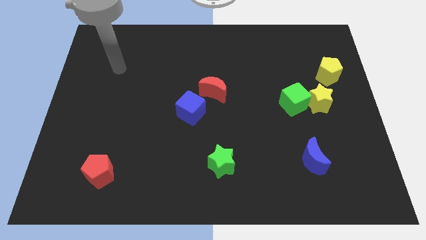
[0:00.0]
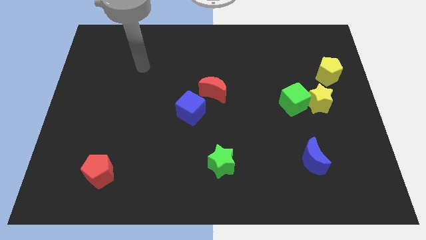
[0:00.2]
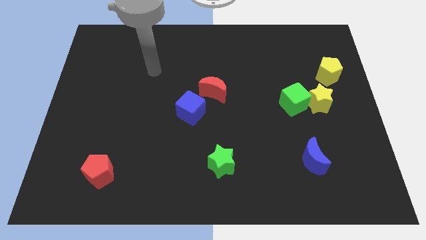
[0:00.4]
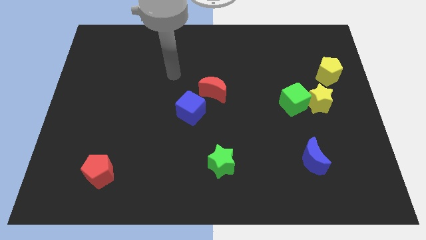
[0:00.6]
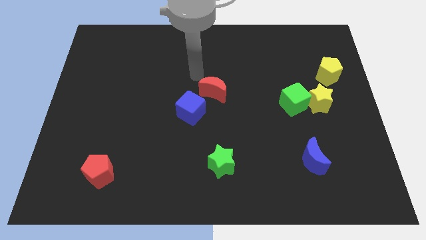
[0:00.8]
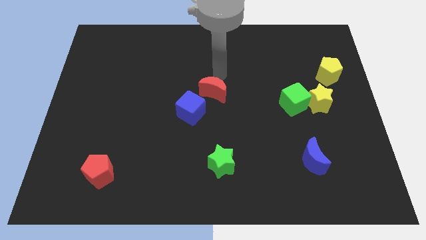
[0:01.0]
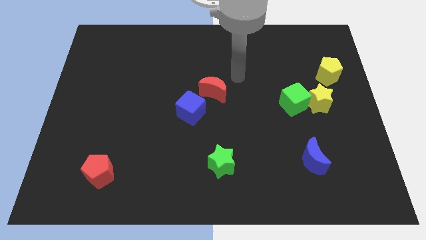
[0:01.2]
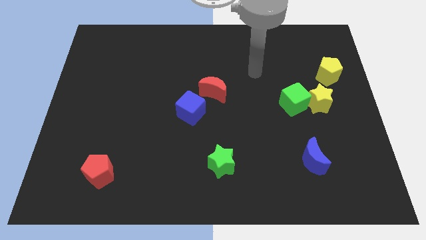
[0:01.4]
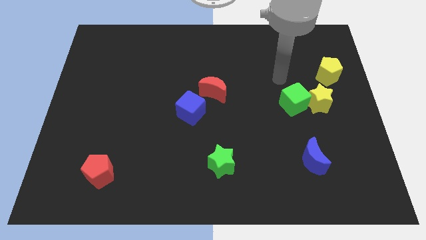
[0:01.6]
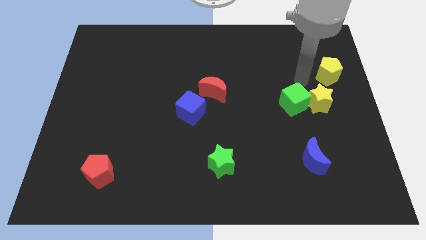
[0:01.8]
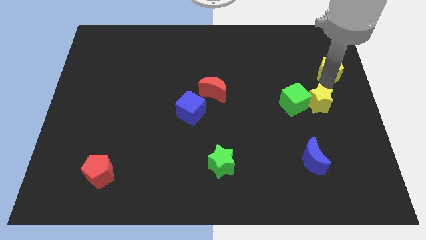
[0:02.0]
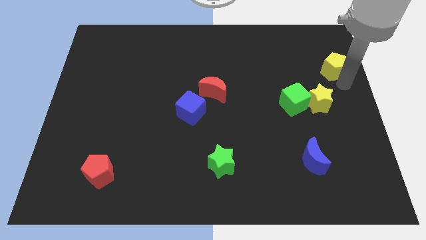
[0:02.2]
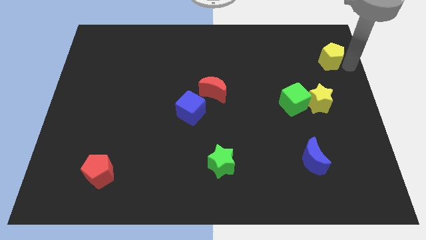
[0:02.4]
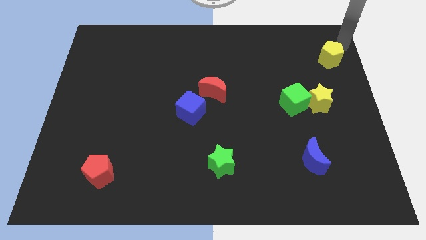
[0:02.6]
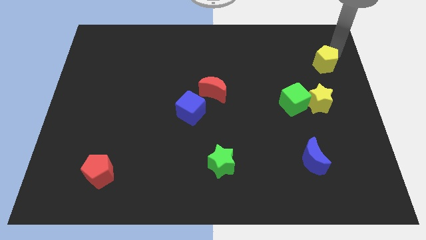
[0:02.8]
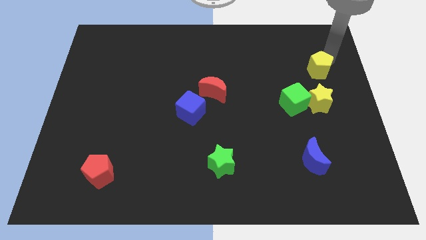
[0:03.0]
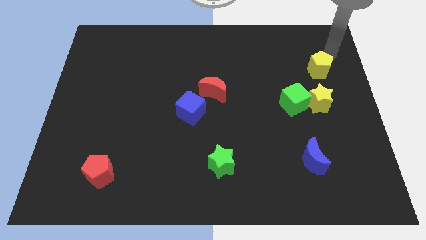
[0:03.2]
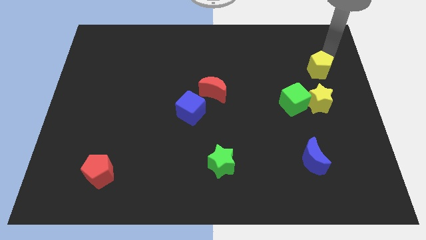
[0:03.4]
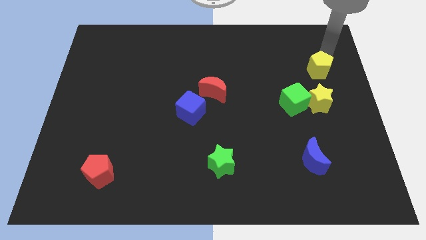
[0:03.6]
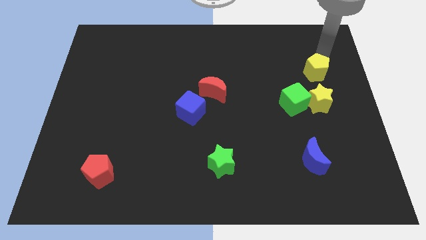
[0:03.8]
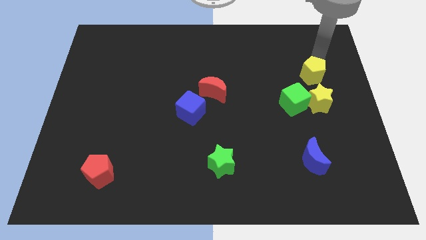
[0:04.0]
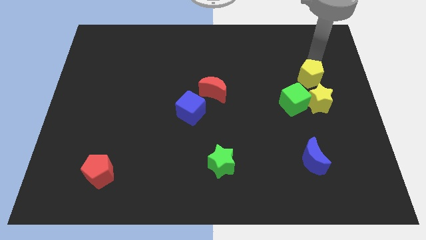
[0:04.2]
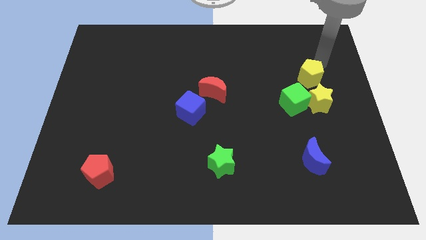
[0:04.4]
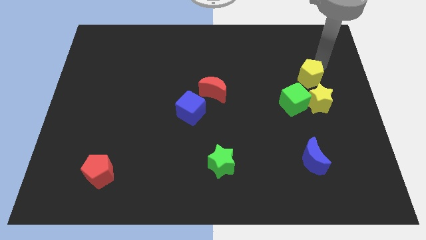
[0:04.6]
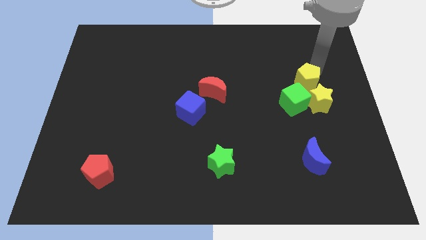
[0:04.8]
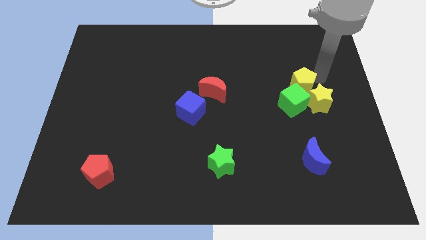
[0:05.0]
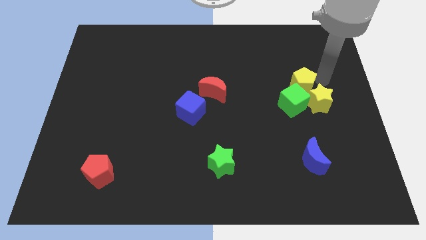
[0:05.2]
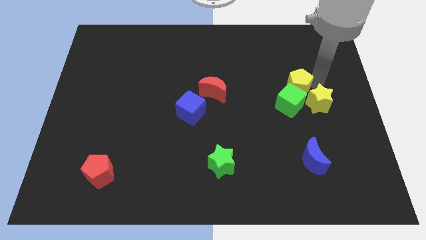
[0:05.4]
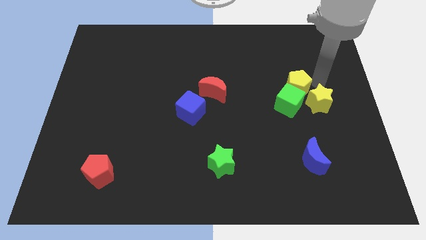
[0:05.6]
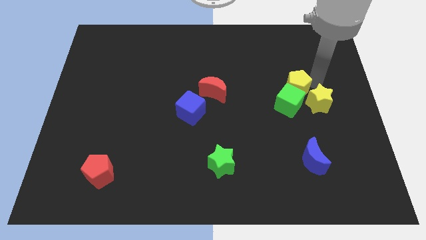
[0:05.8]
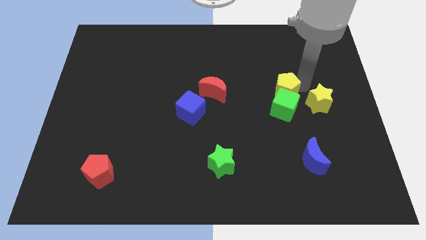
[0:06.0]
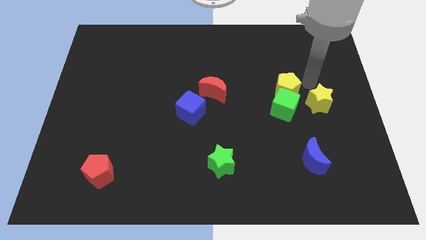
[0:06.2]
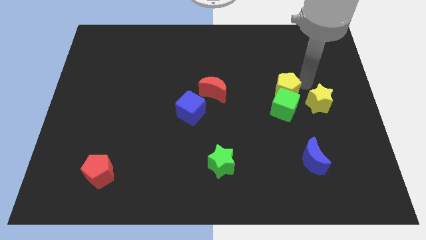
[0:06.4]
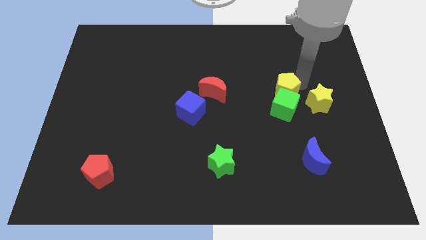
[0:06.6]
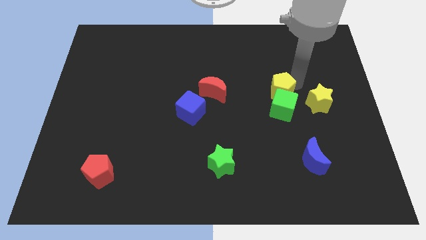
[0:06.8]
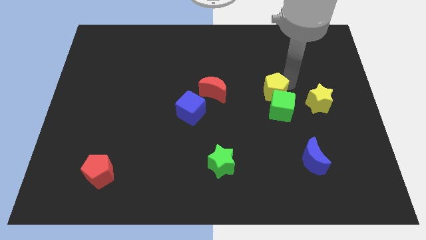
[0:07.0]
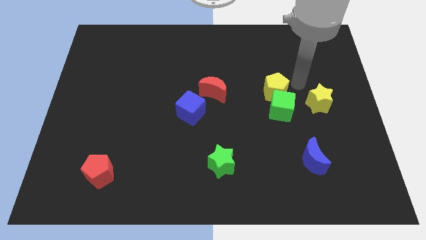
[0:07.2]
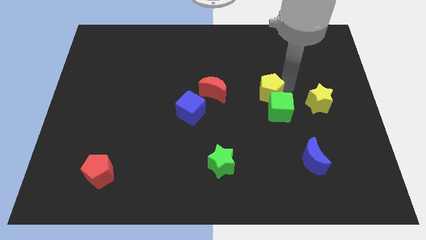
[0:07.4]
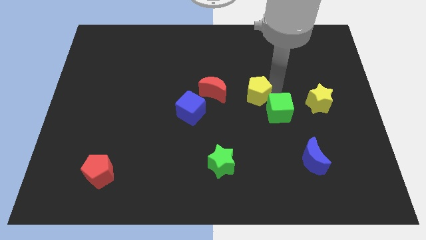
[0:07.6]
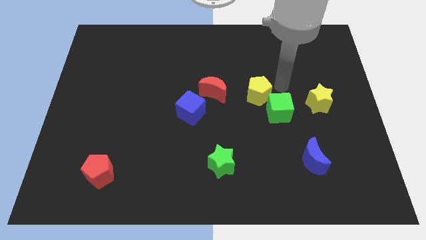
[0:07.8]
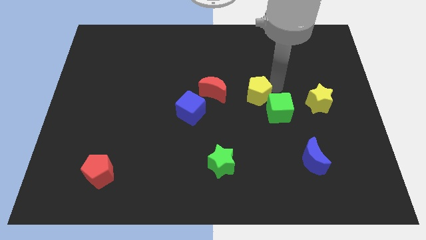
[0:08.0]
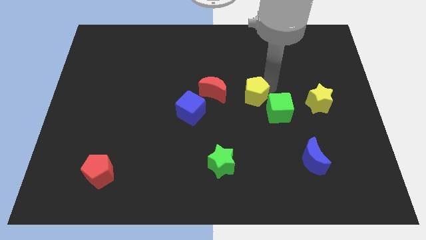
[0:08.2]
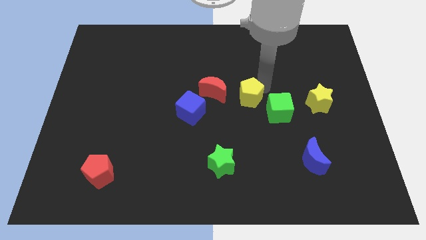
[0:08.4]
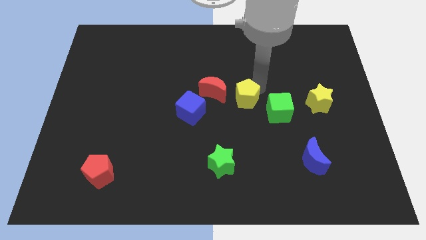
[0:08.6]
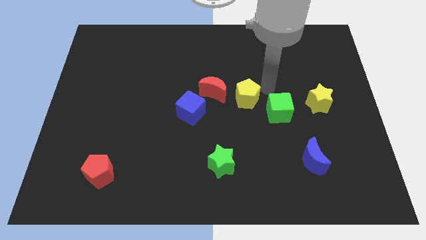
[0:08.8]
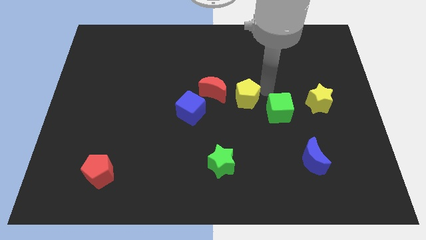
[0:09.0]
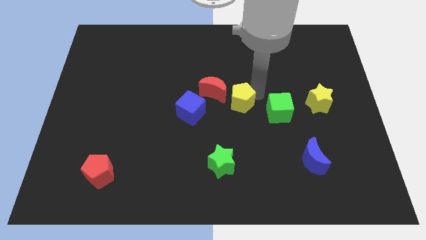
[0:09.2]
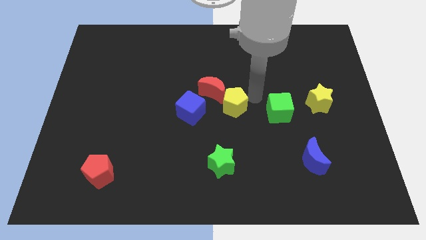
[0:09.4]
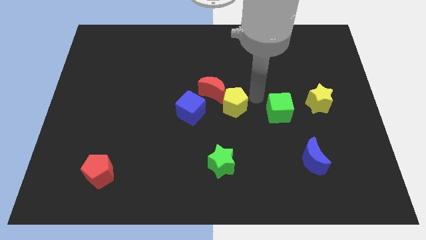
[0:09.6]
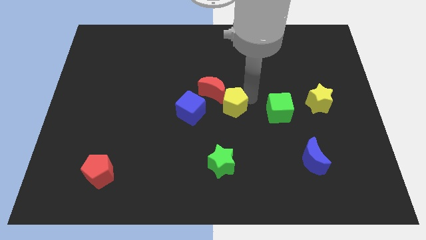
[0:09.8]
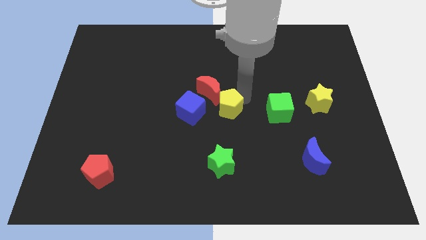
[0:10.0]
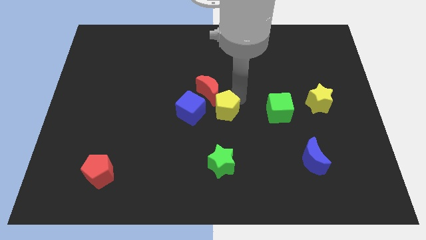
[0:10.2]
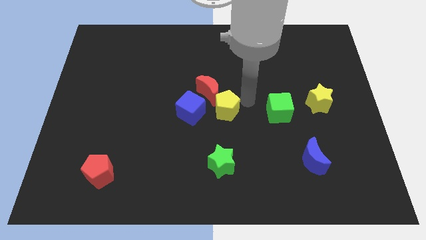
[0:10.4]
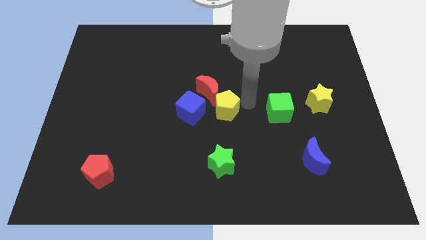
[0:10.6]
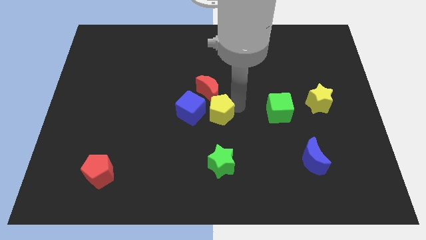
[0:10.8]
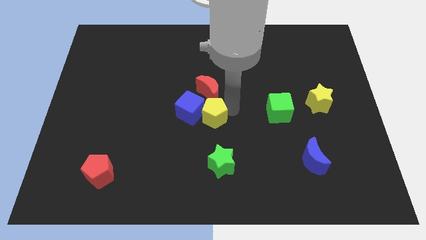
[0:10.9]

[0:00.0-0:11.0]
move the yellow pentagon to the blue cube

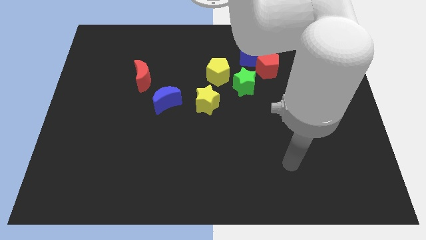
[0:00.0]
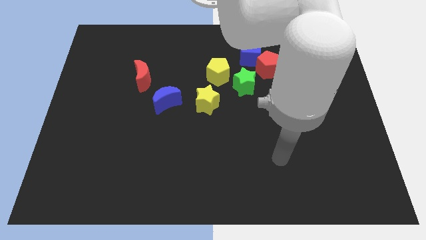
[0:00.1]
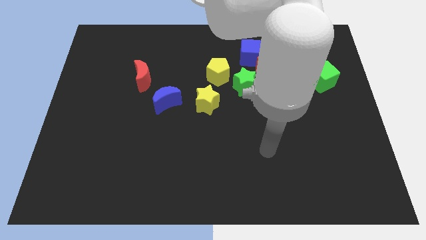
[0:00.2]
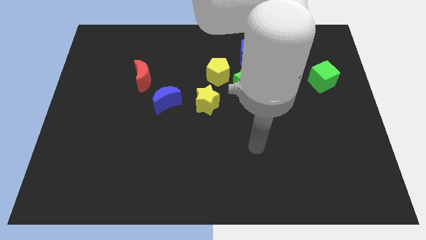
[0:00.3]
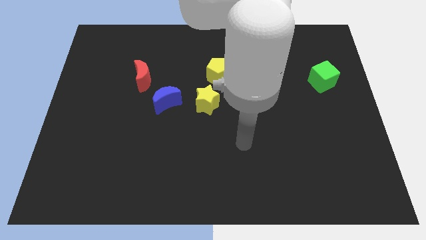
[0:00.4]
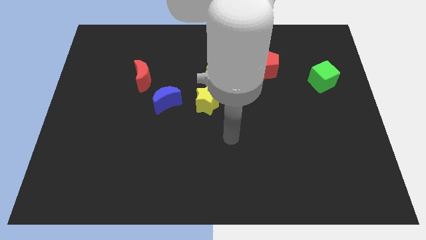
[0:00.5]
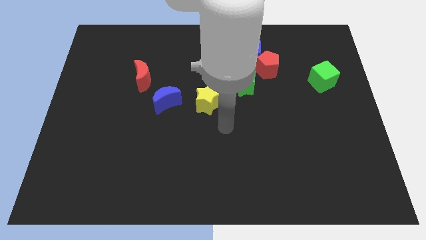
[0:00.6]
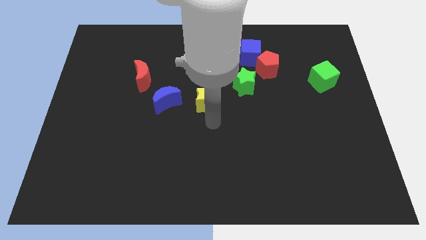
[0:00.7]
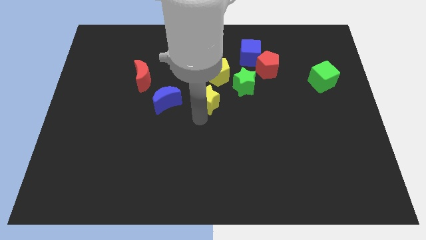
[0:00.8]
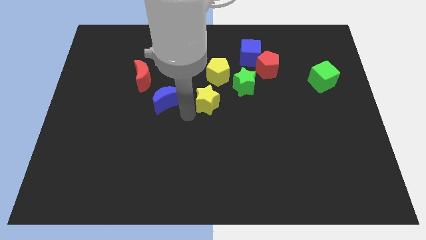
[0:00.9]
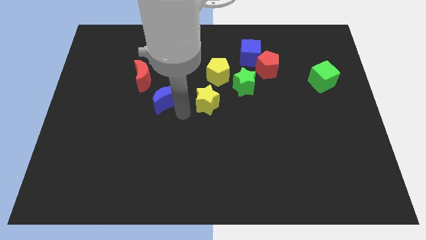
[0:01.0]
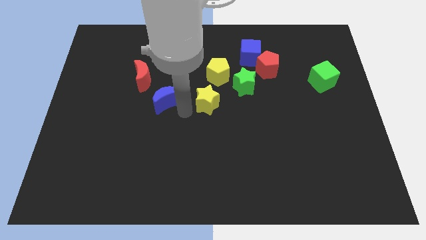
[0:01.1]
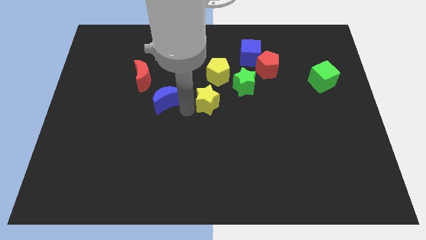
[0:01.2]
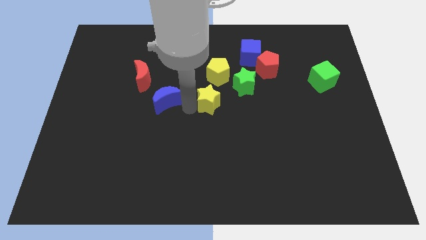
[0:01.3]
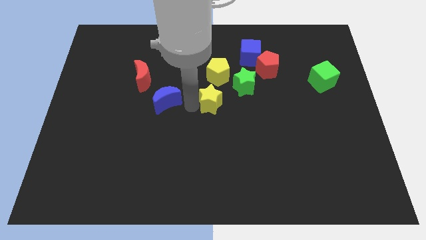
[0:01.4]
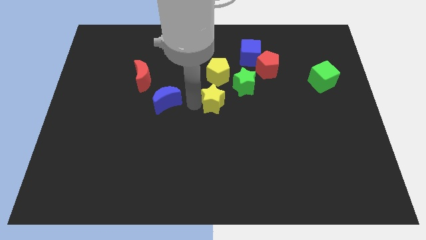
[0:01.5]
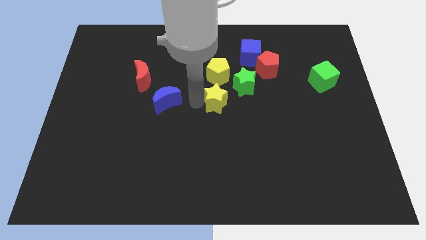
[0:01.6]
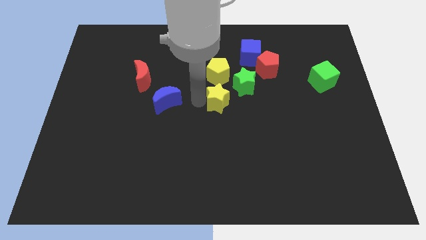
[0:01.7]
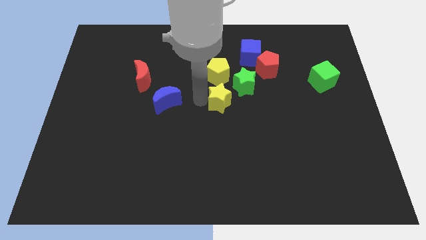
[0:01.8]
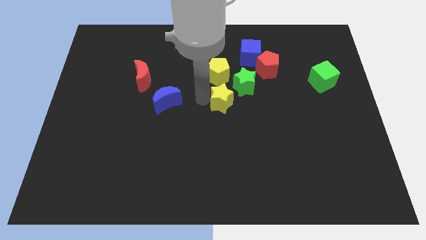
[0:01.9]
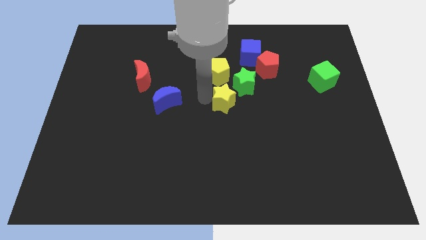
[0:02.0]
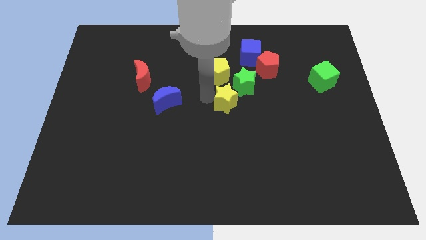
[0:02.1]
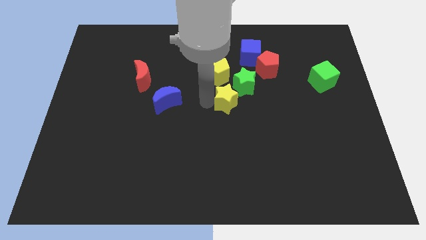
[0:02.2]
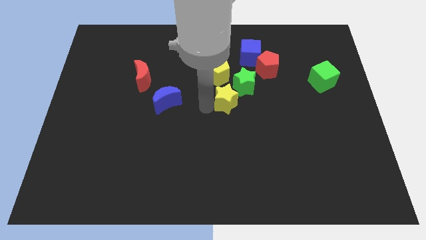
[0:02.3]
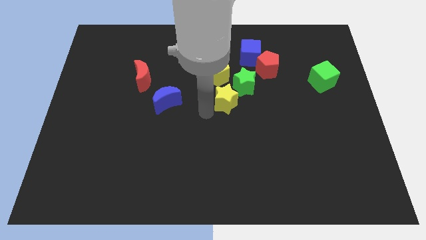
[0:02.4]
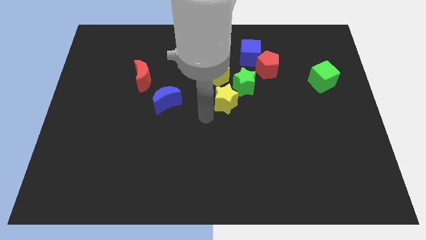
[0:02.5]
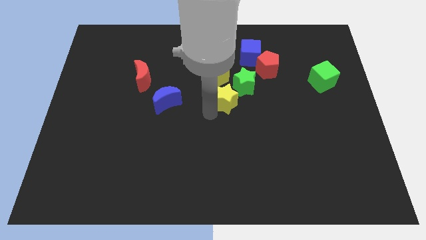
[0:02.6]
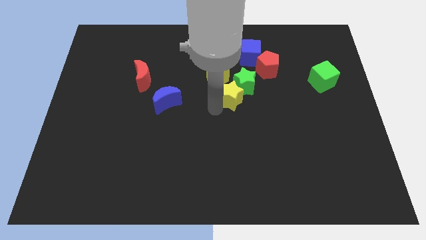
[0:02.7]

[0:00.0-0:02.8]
put the yellow star next to the green star
